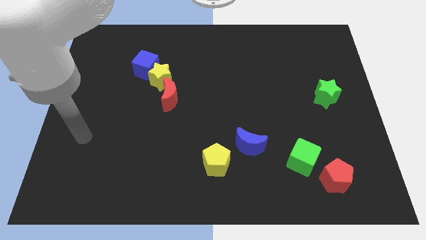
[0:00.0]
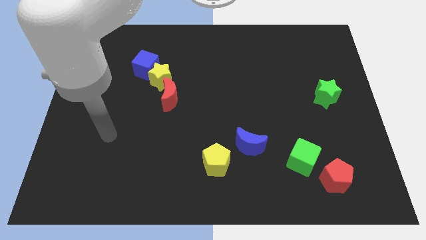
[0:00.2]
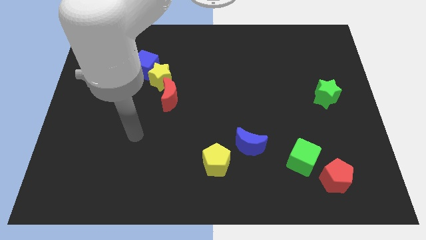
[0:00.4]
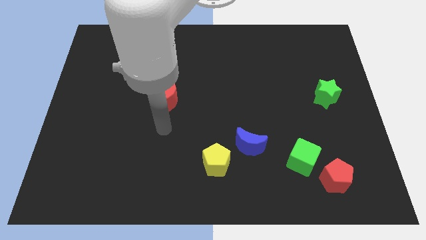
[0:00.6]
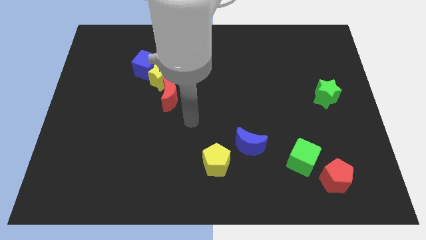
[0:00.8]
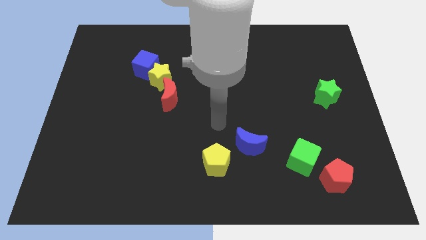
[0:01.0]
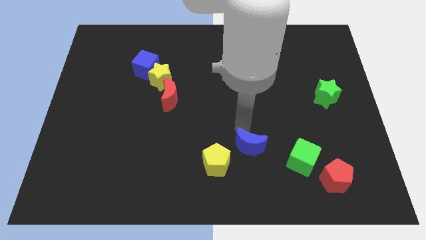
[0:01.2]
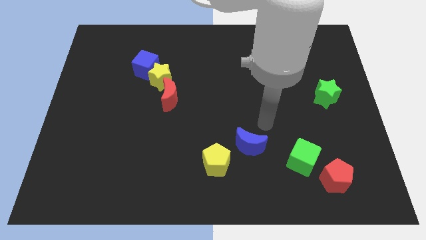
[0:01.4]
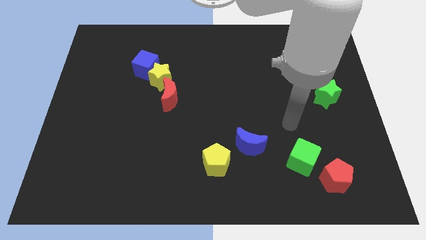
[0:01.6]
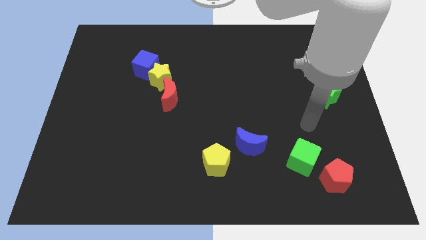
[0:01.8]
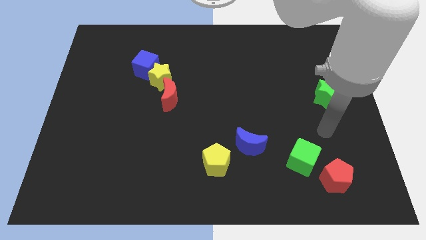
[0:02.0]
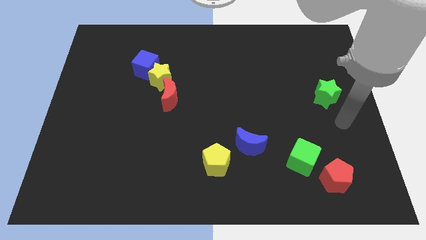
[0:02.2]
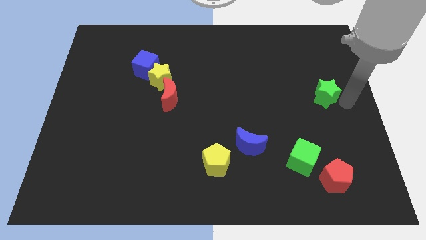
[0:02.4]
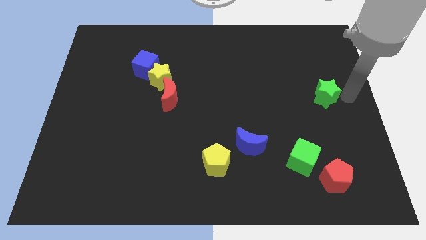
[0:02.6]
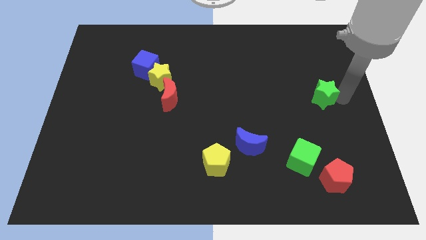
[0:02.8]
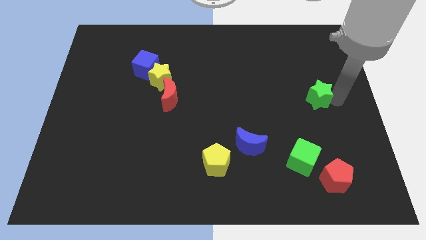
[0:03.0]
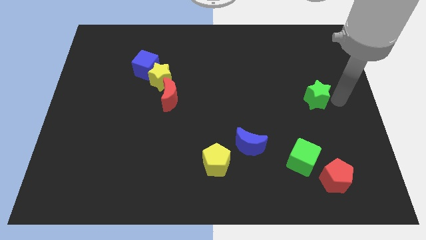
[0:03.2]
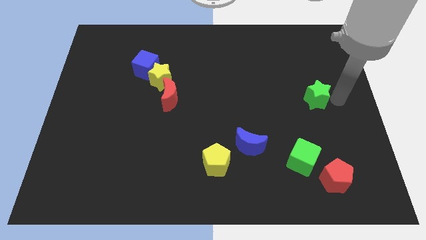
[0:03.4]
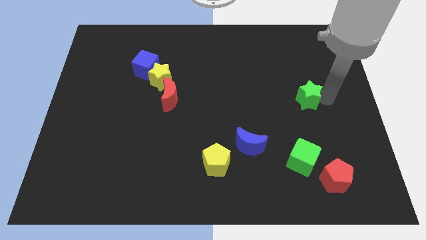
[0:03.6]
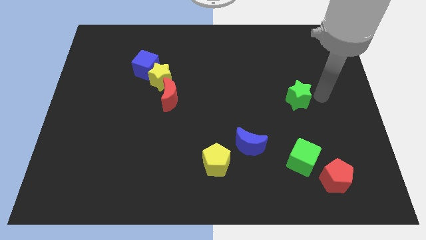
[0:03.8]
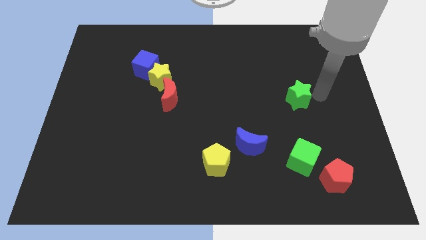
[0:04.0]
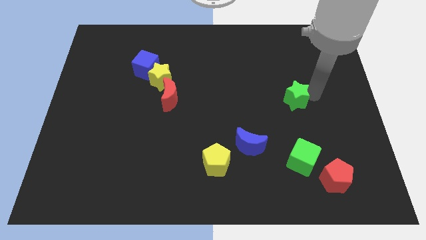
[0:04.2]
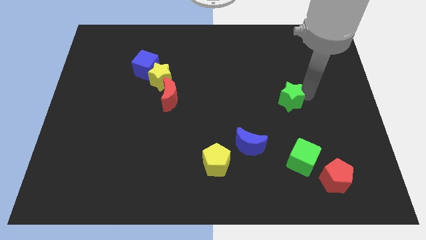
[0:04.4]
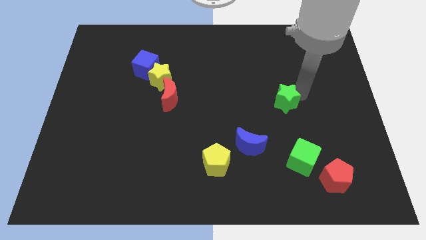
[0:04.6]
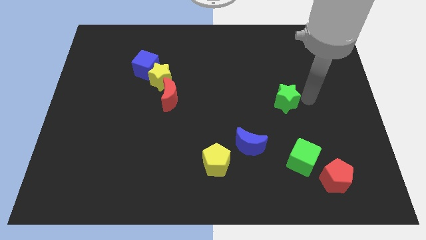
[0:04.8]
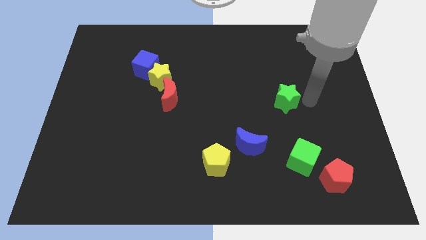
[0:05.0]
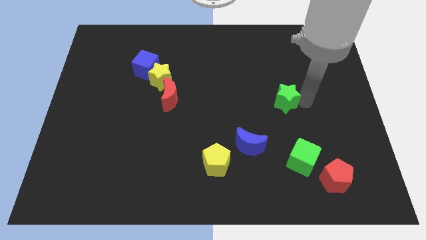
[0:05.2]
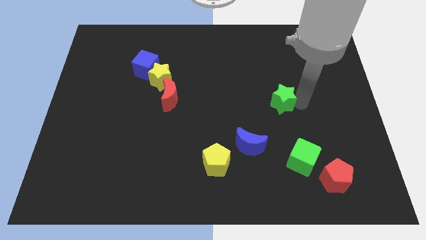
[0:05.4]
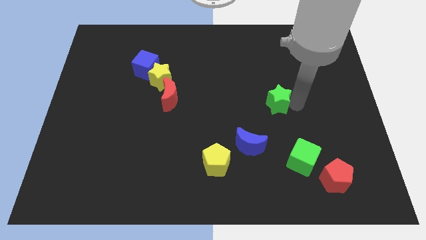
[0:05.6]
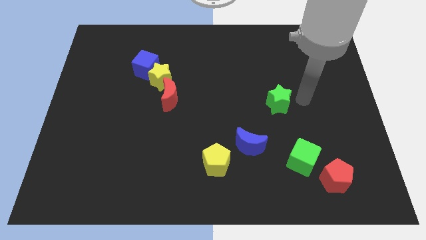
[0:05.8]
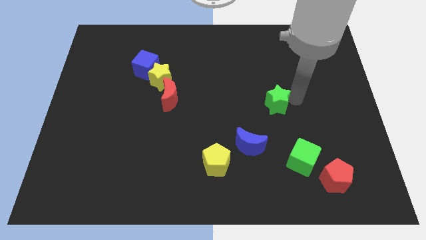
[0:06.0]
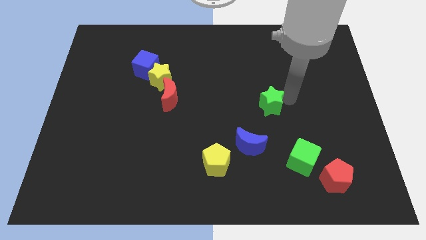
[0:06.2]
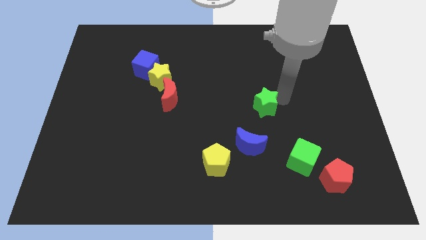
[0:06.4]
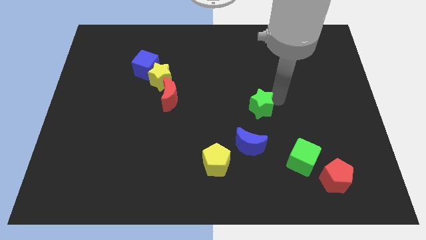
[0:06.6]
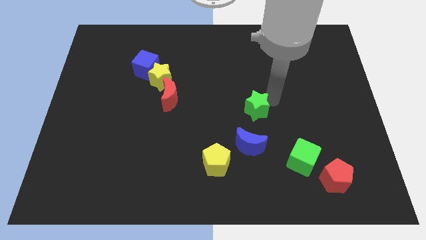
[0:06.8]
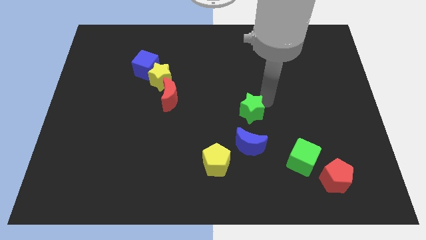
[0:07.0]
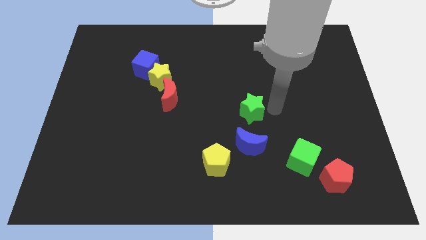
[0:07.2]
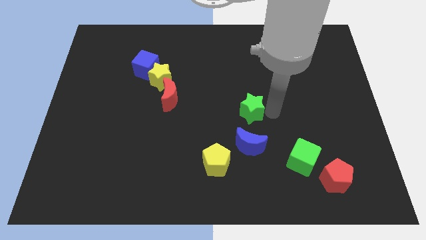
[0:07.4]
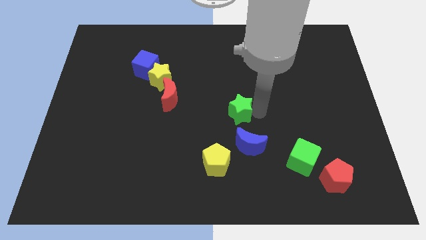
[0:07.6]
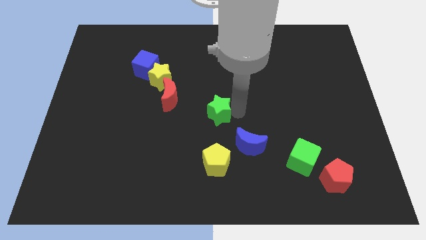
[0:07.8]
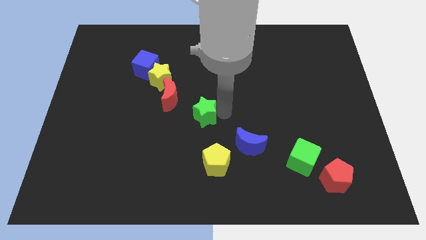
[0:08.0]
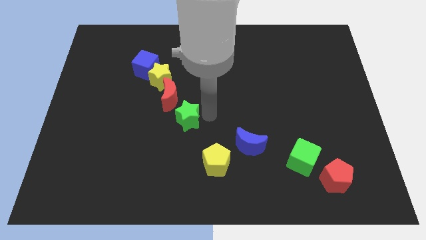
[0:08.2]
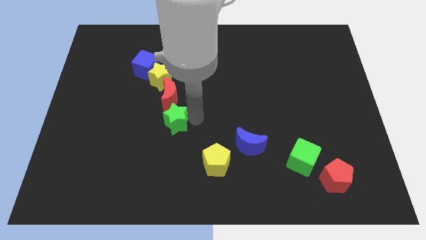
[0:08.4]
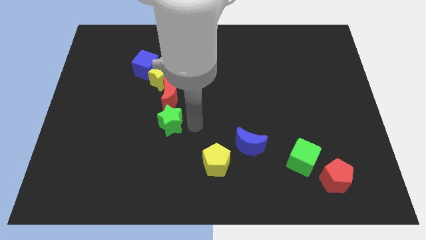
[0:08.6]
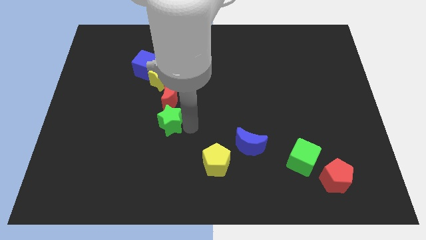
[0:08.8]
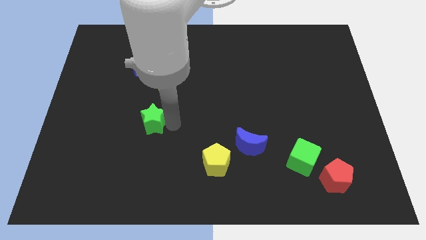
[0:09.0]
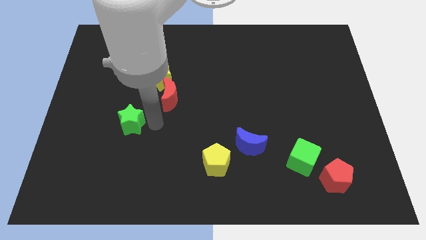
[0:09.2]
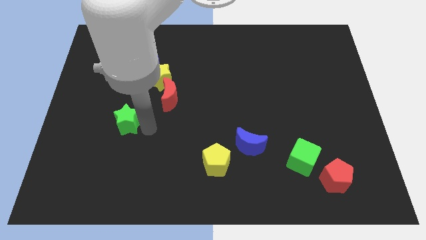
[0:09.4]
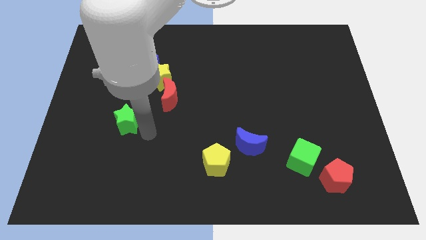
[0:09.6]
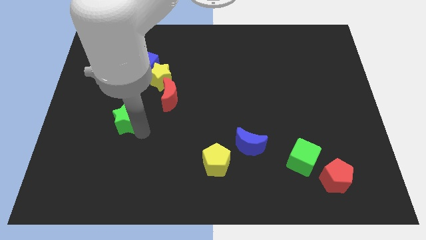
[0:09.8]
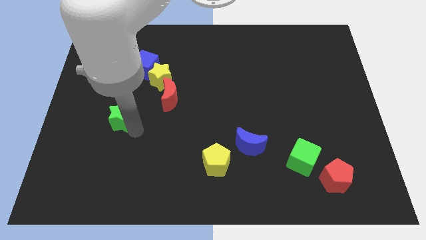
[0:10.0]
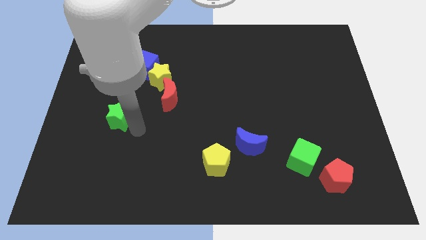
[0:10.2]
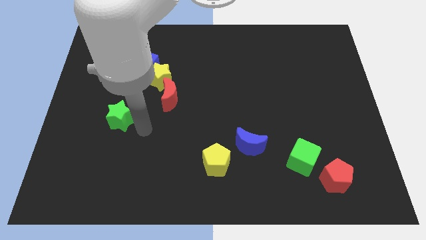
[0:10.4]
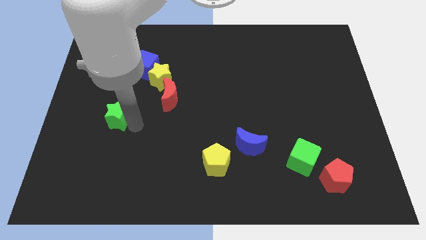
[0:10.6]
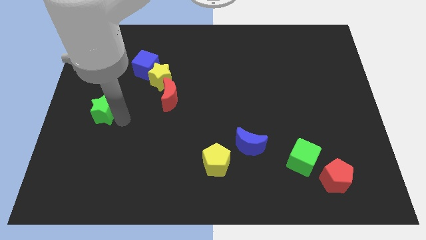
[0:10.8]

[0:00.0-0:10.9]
push the green star to the center left

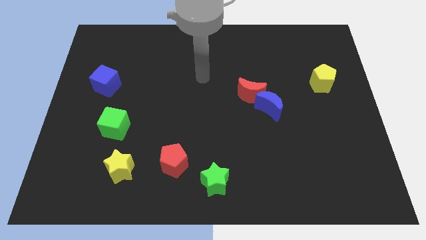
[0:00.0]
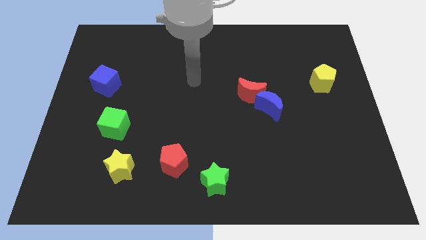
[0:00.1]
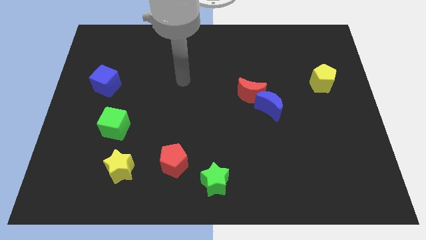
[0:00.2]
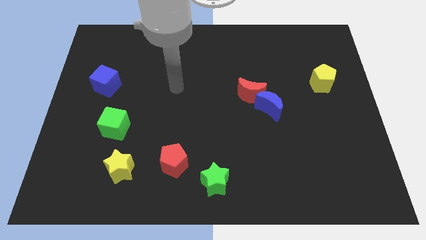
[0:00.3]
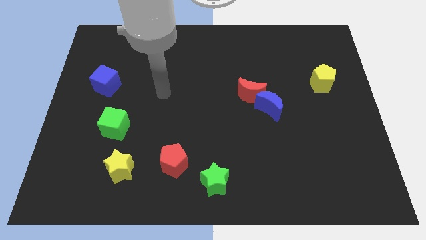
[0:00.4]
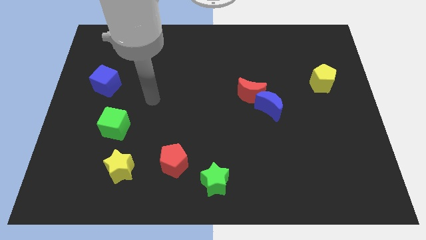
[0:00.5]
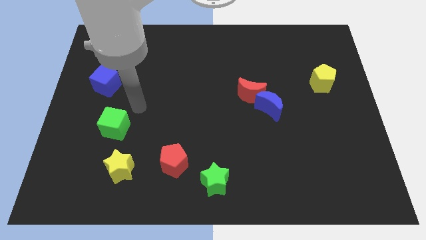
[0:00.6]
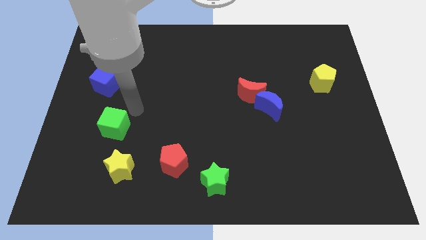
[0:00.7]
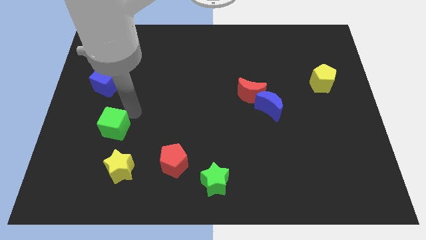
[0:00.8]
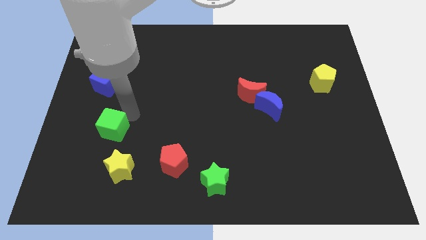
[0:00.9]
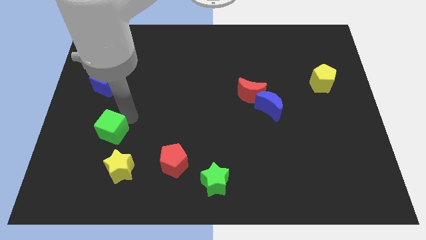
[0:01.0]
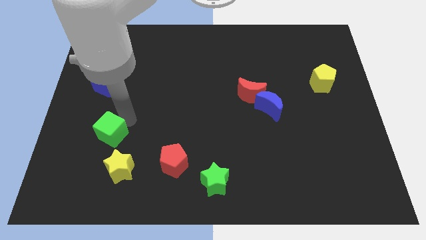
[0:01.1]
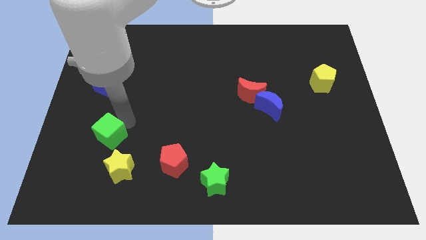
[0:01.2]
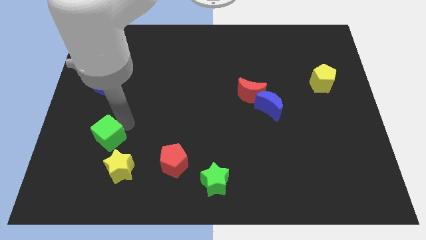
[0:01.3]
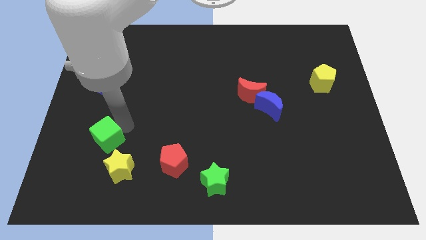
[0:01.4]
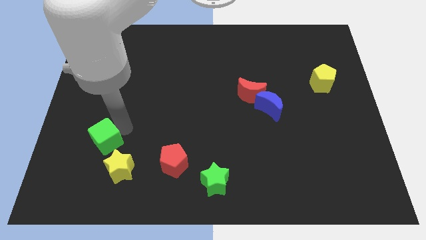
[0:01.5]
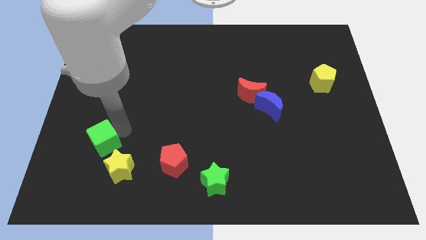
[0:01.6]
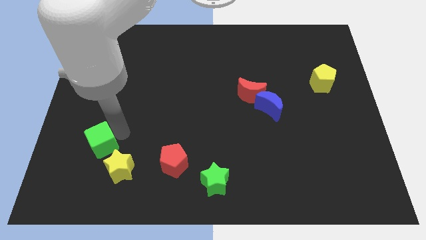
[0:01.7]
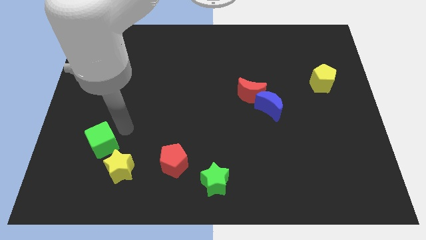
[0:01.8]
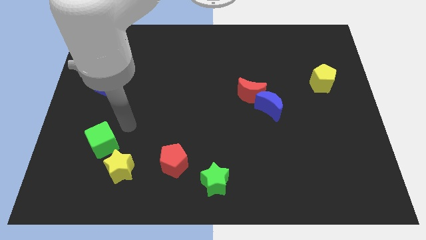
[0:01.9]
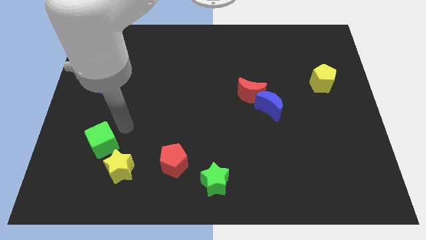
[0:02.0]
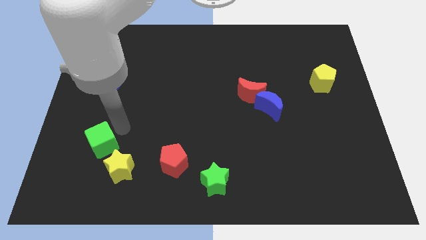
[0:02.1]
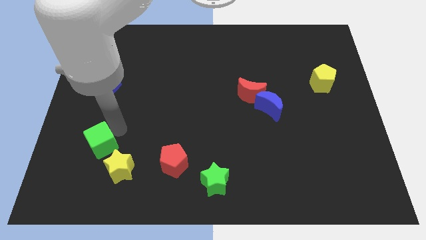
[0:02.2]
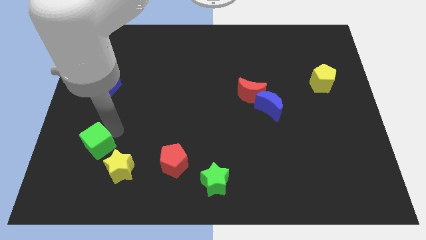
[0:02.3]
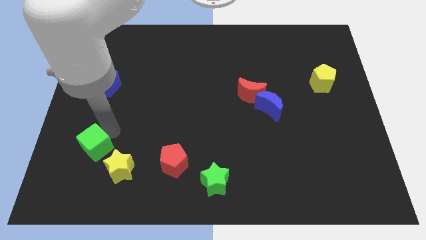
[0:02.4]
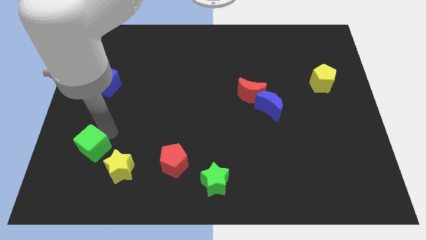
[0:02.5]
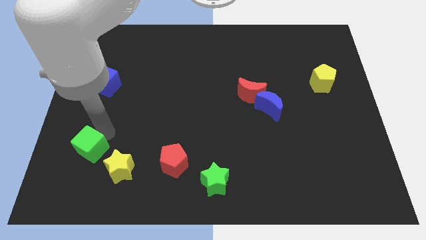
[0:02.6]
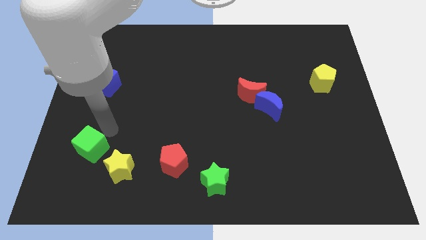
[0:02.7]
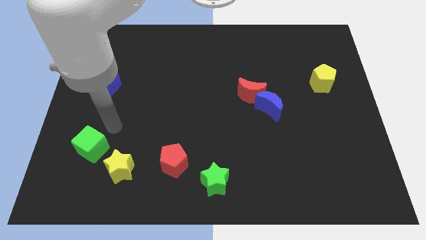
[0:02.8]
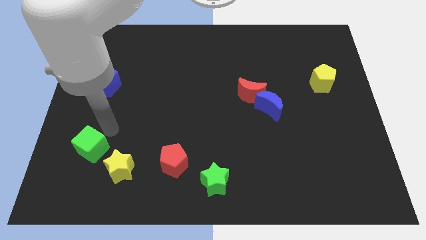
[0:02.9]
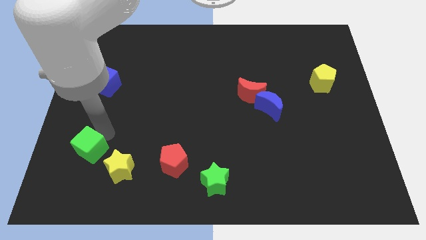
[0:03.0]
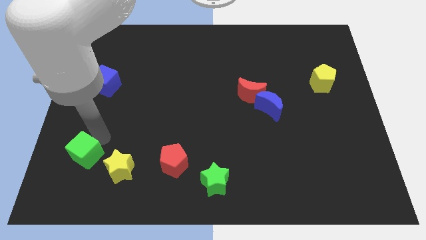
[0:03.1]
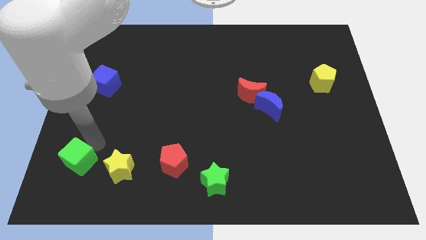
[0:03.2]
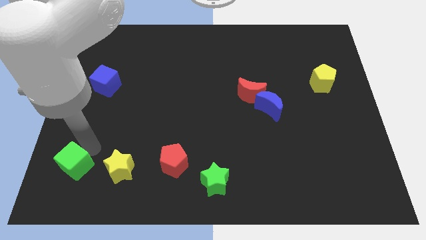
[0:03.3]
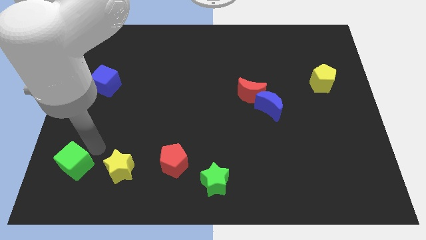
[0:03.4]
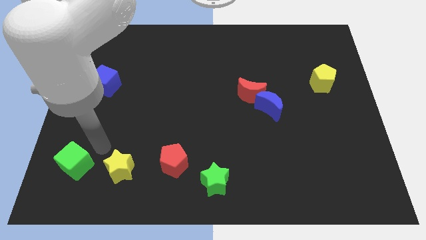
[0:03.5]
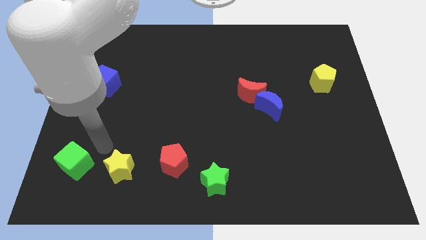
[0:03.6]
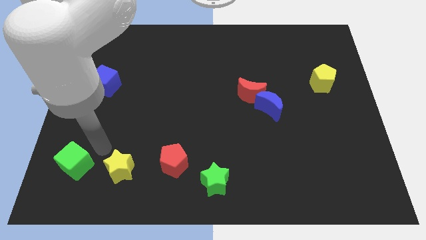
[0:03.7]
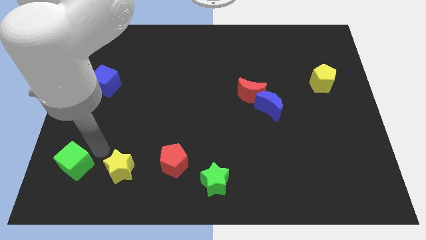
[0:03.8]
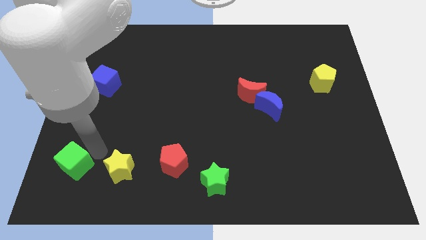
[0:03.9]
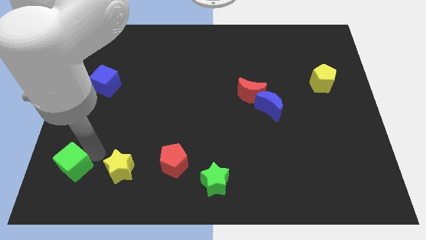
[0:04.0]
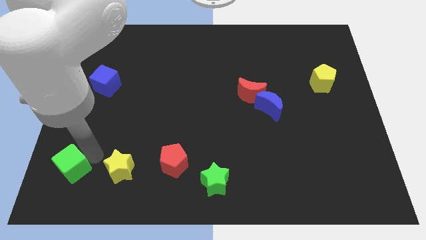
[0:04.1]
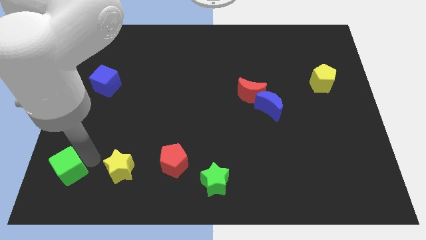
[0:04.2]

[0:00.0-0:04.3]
put the green cube to the bottom left of the board
